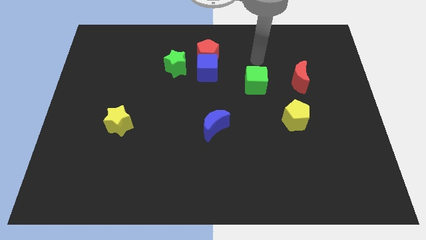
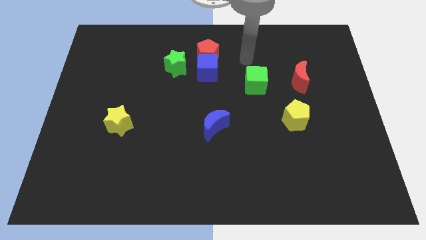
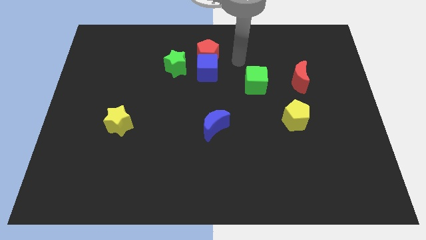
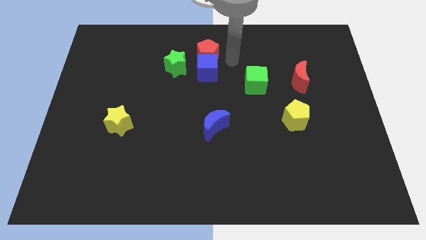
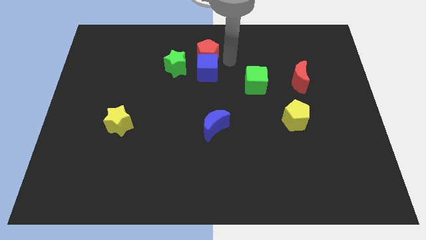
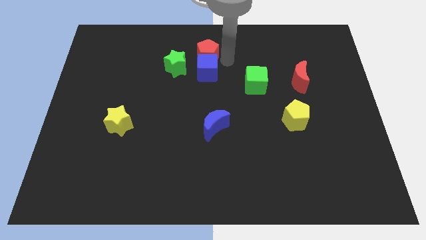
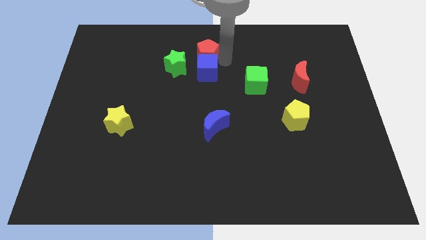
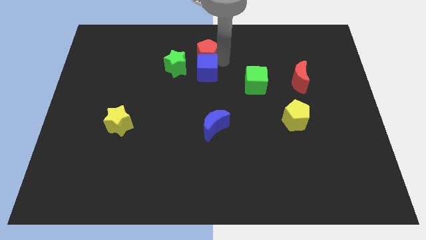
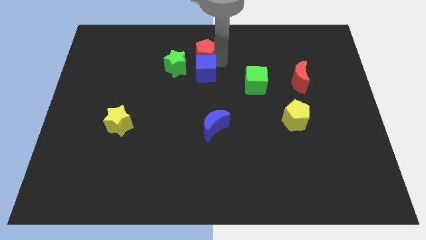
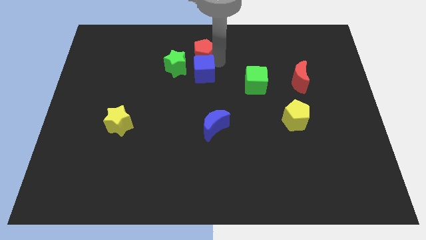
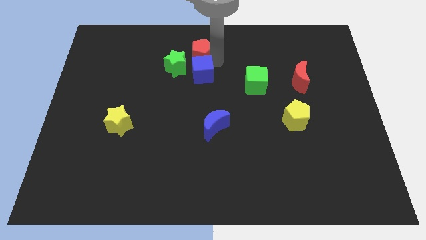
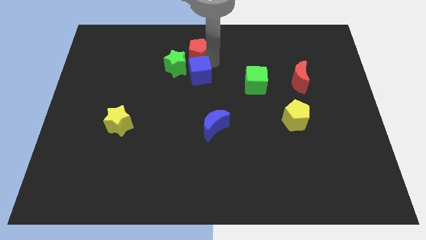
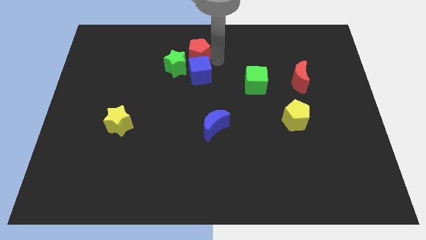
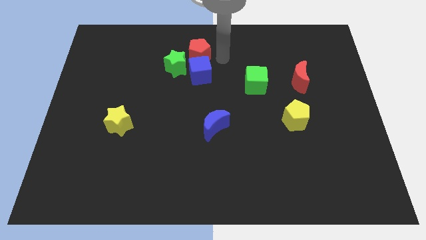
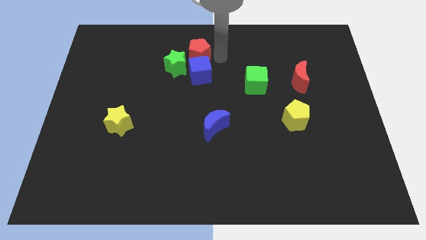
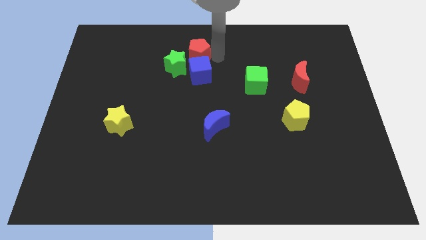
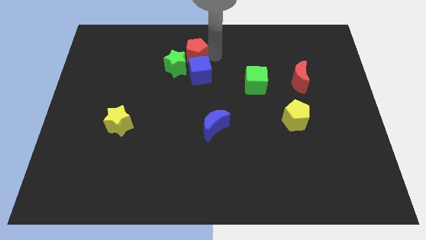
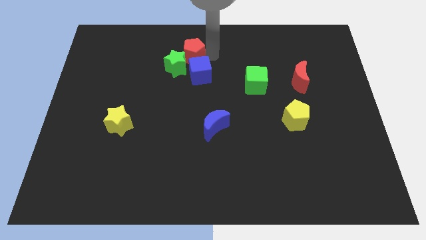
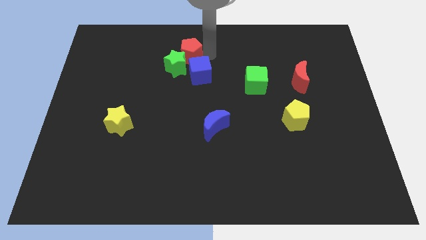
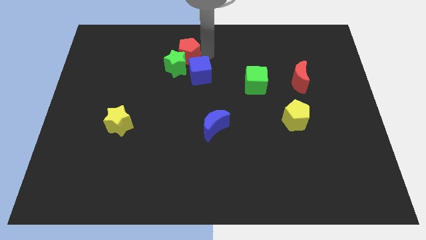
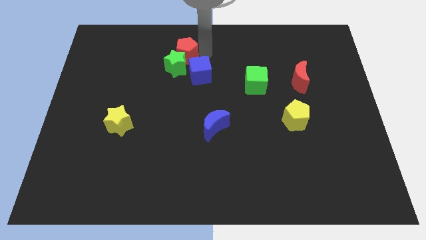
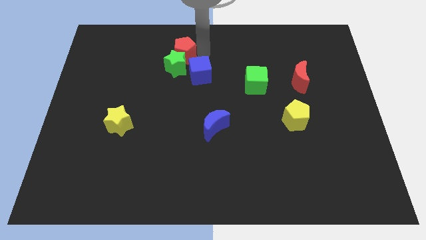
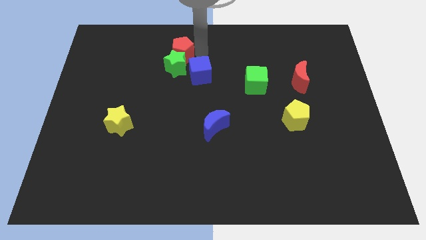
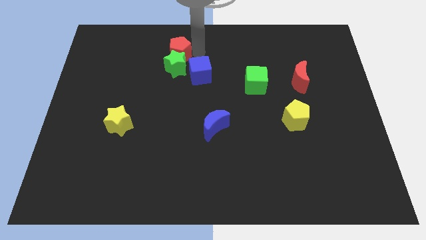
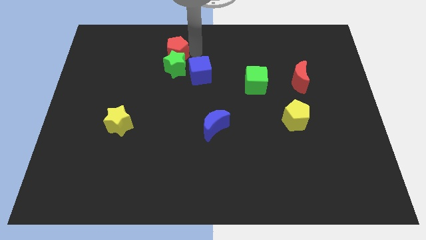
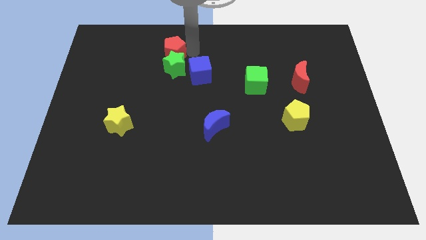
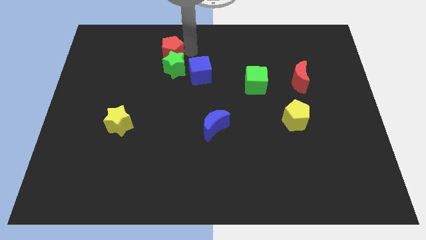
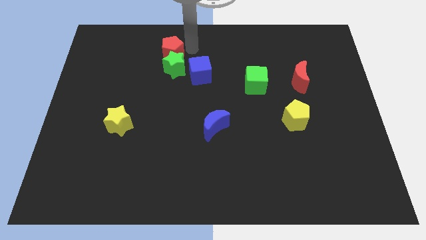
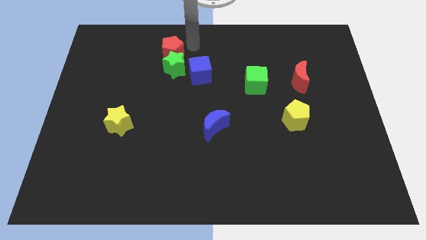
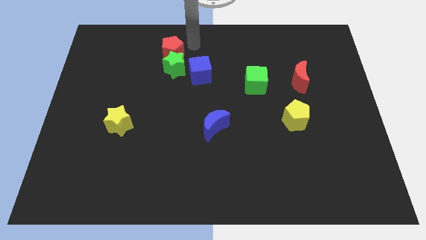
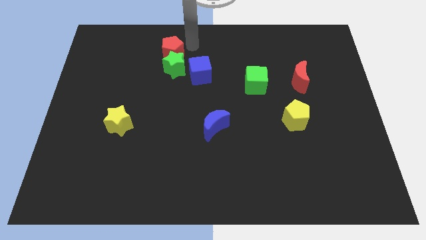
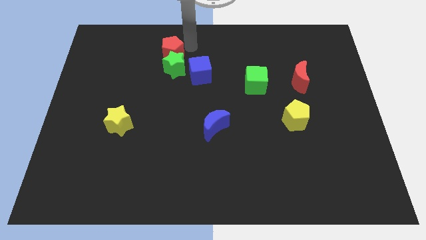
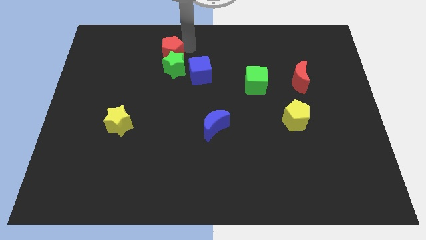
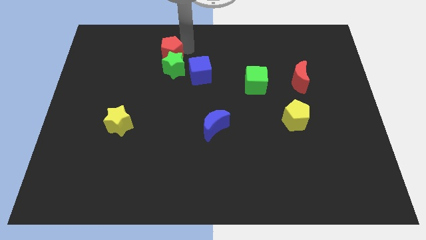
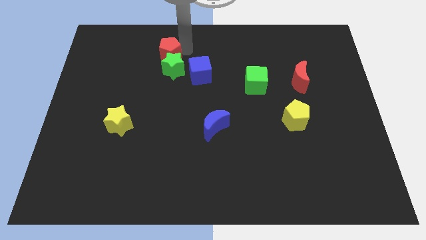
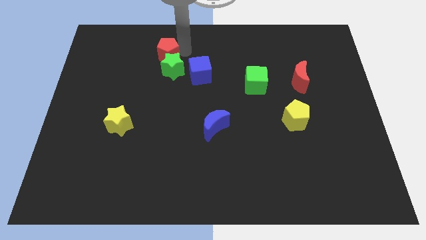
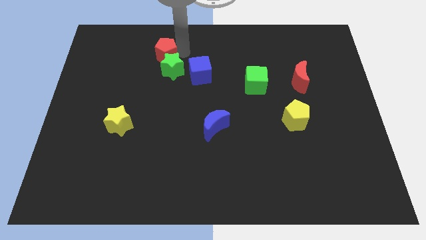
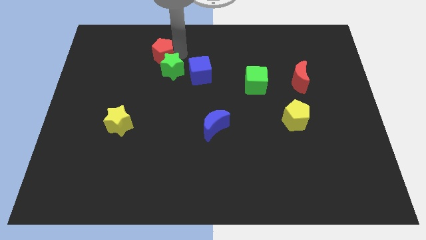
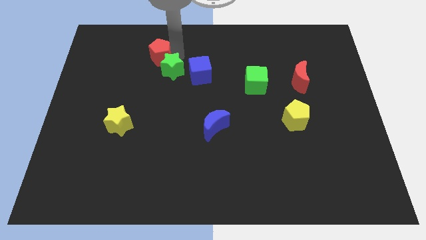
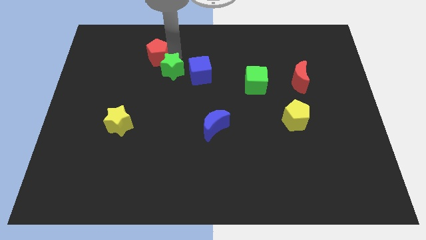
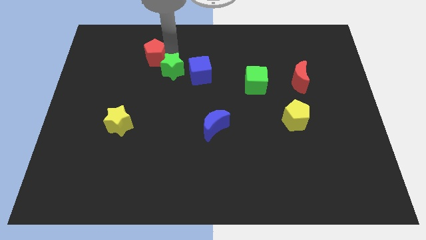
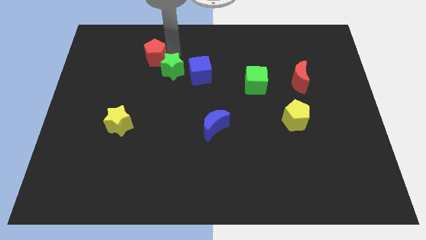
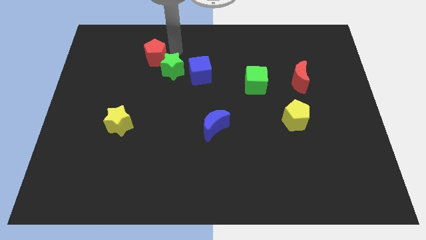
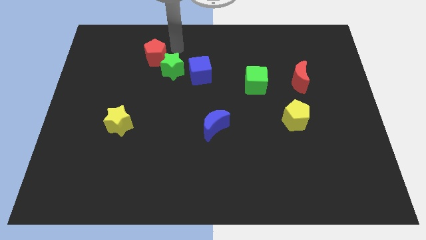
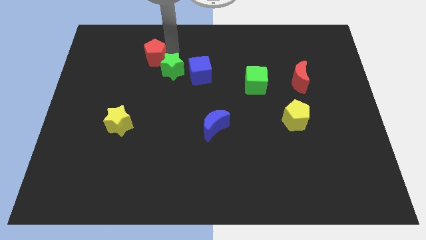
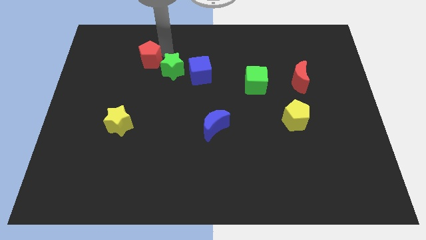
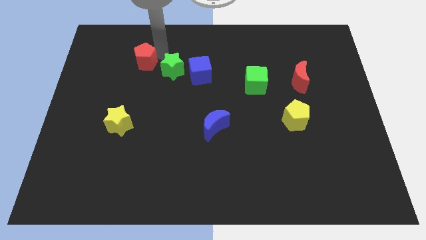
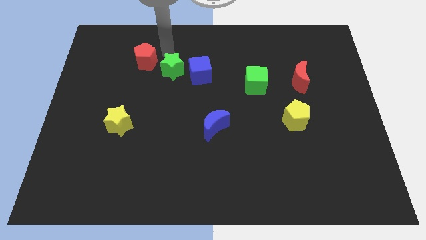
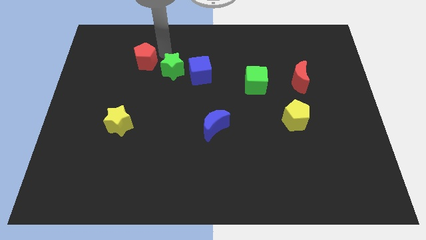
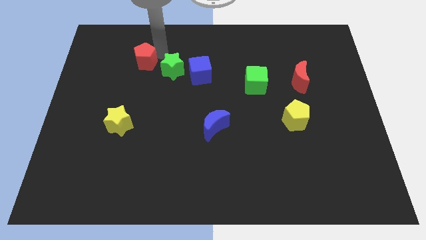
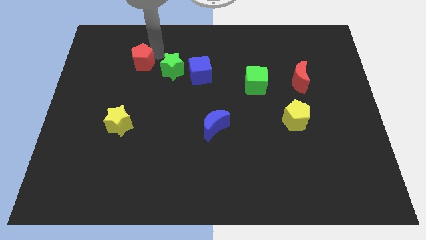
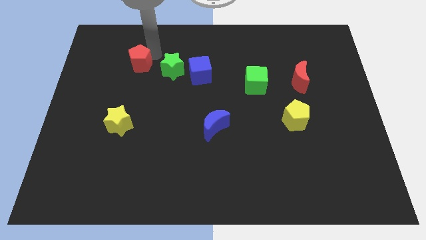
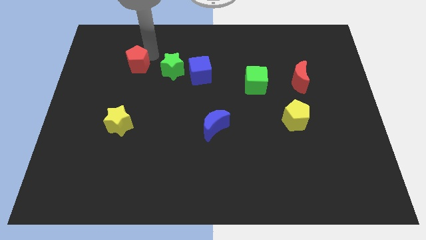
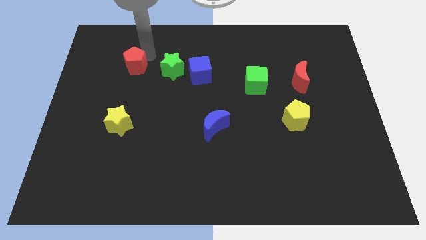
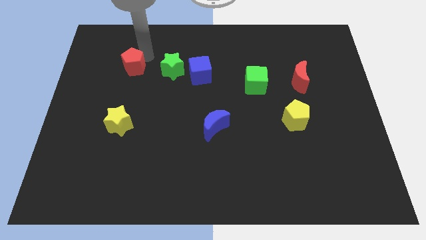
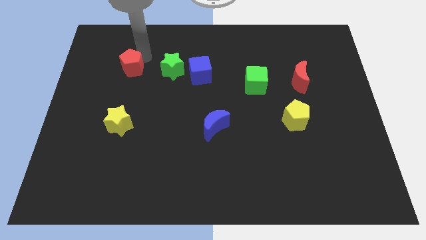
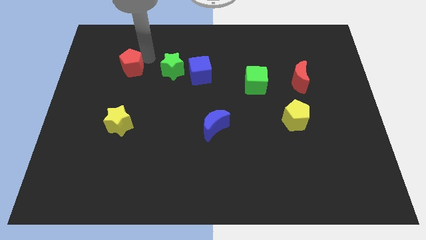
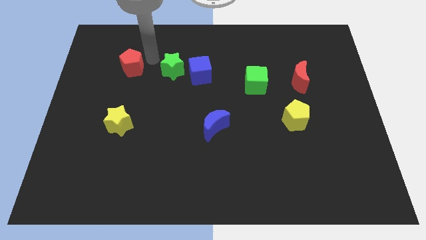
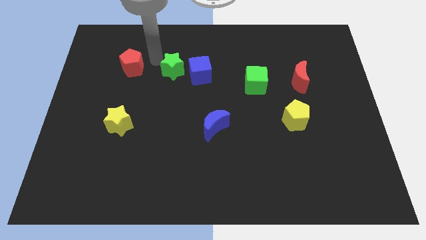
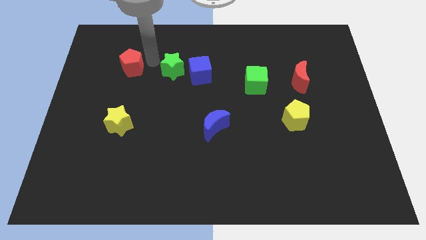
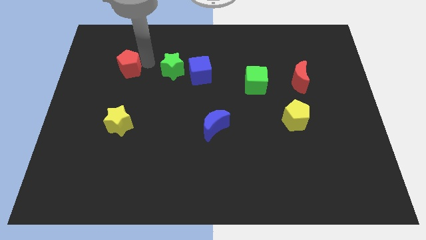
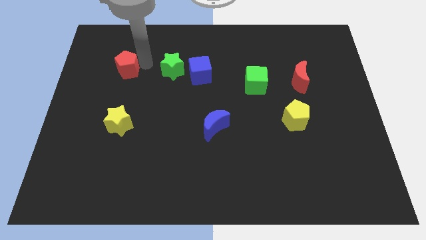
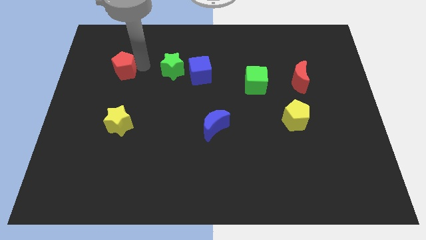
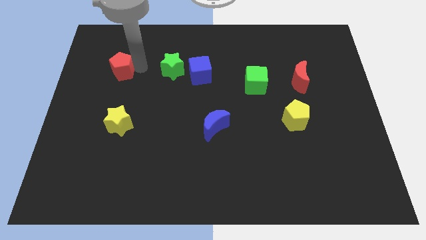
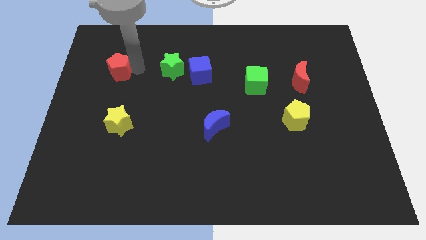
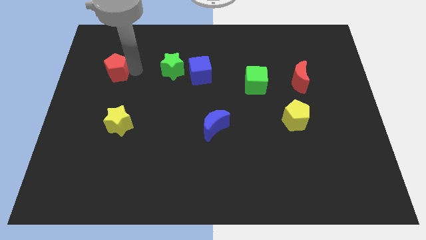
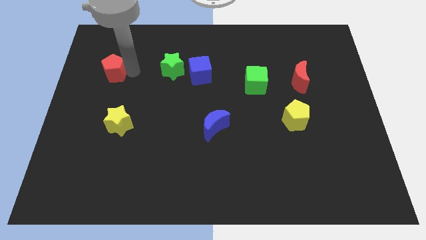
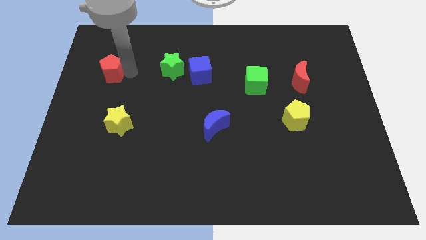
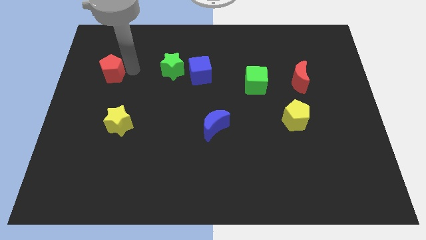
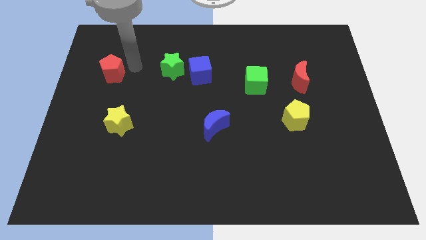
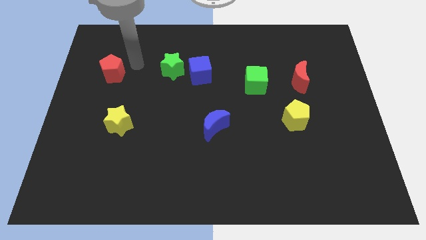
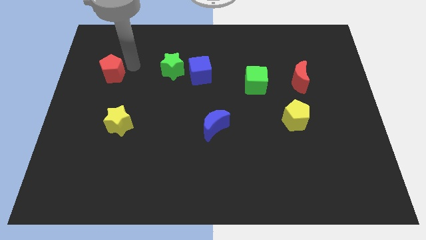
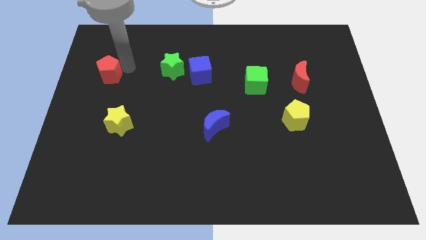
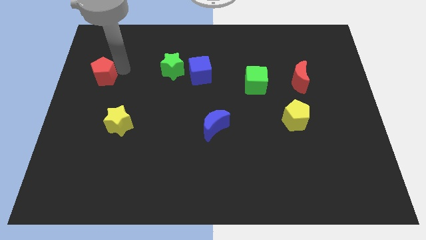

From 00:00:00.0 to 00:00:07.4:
put the red pentagon to the left side
